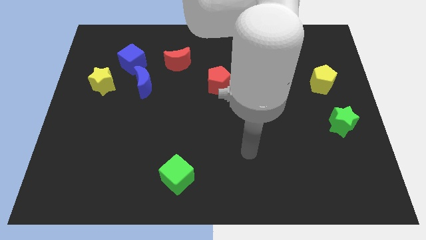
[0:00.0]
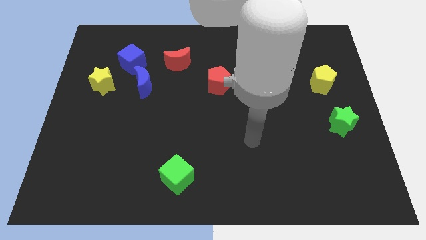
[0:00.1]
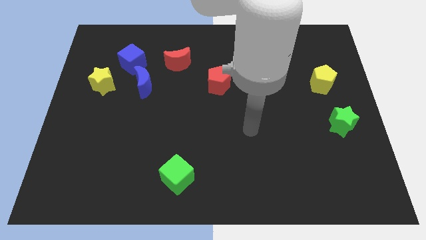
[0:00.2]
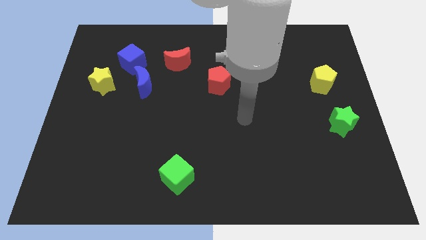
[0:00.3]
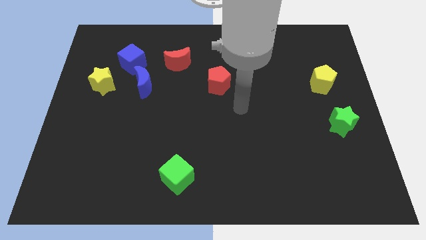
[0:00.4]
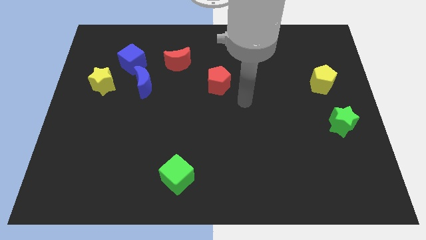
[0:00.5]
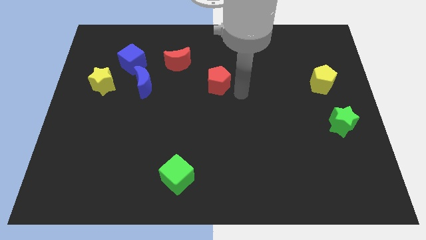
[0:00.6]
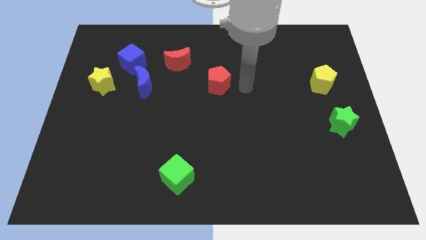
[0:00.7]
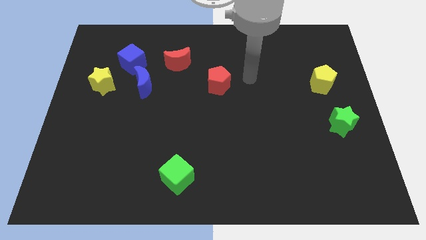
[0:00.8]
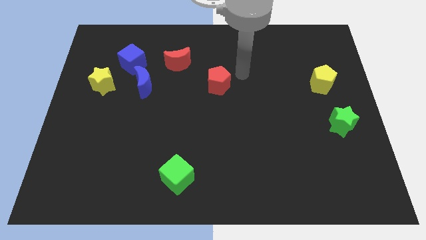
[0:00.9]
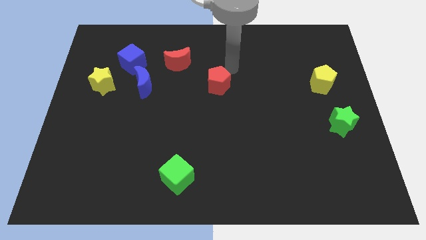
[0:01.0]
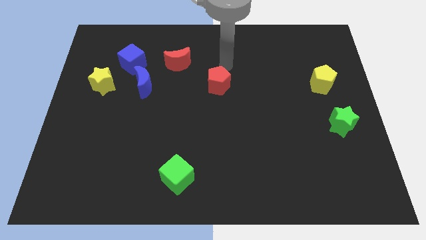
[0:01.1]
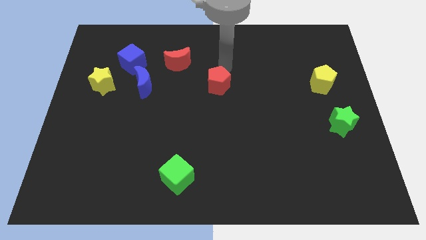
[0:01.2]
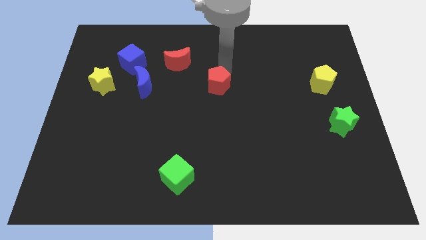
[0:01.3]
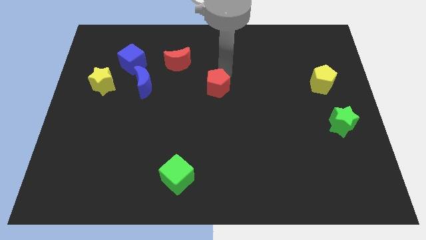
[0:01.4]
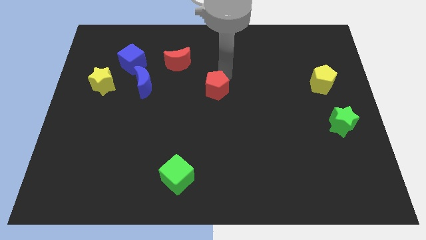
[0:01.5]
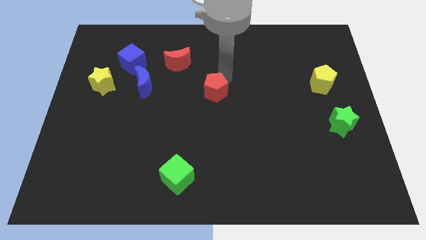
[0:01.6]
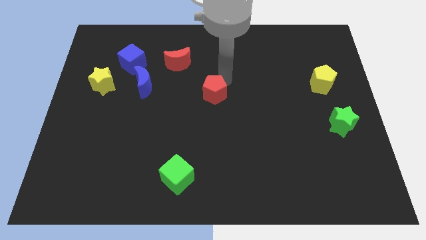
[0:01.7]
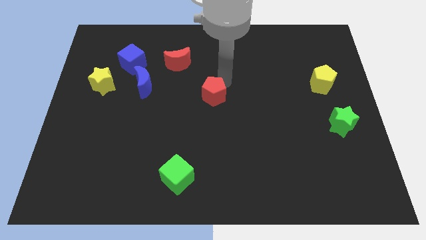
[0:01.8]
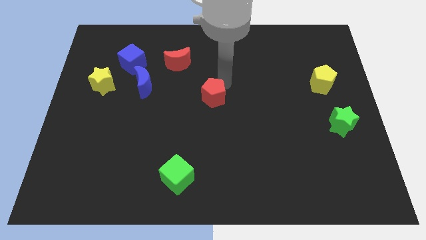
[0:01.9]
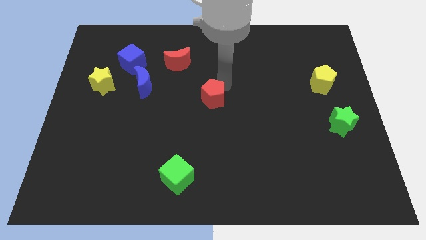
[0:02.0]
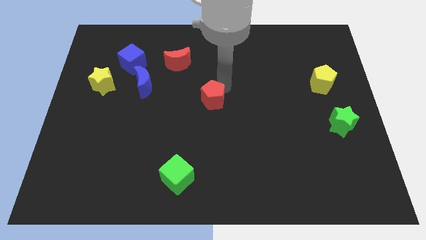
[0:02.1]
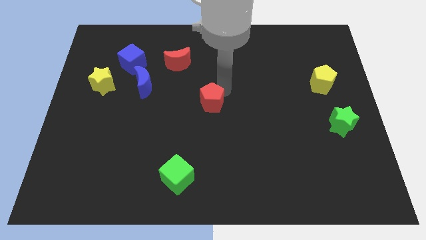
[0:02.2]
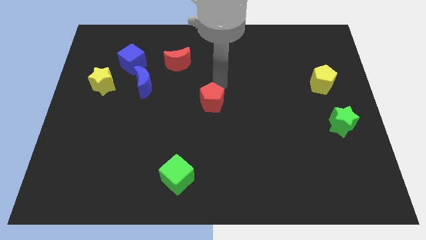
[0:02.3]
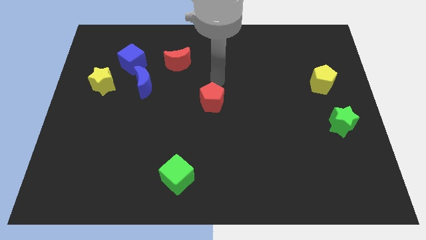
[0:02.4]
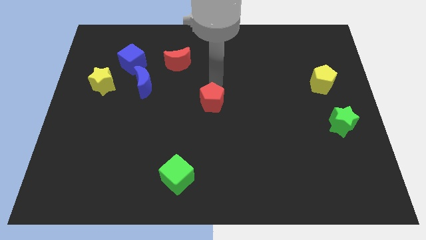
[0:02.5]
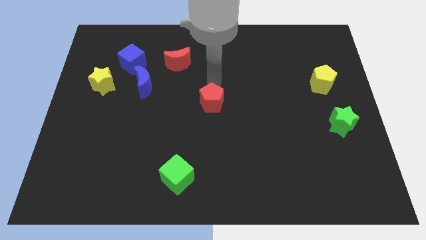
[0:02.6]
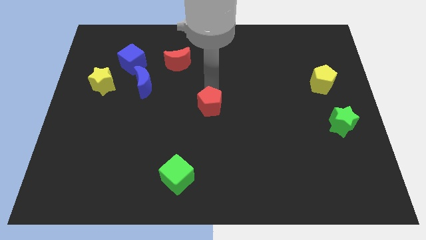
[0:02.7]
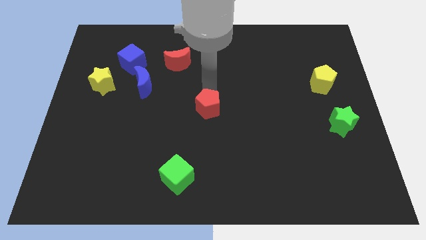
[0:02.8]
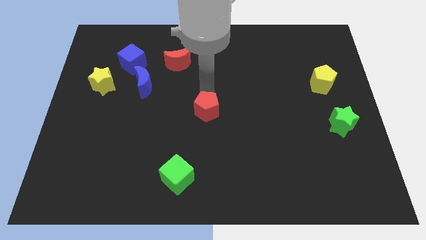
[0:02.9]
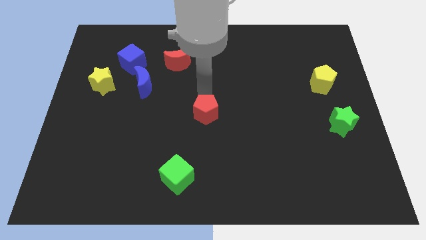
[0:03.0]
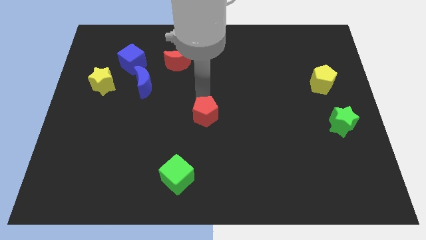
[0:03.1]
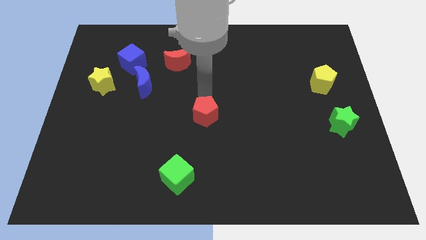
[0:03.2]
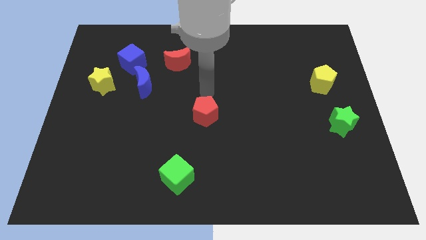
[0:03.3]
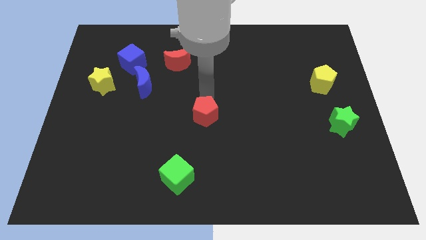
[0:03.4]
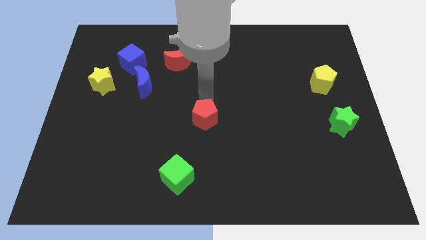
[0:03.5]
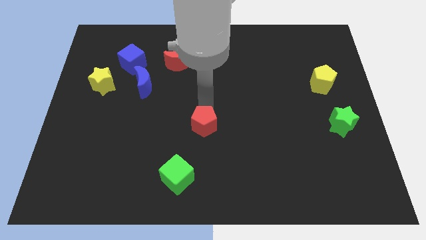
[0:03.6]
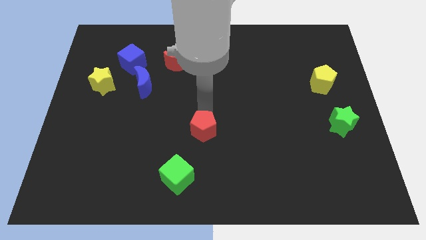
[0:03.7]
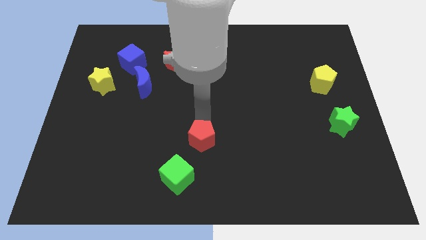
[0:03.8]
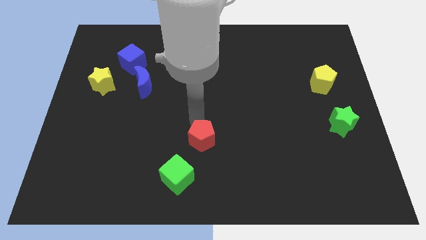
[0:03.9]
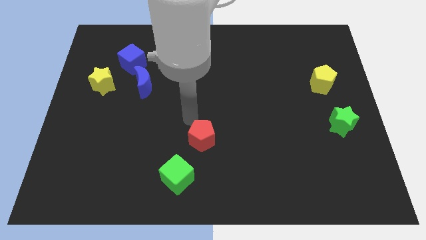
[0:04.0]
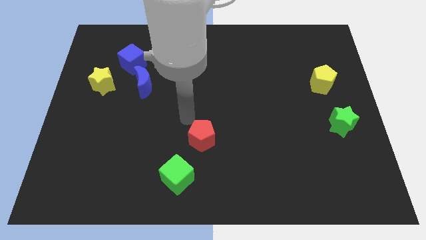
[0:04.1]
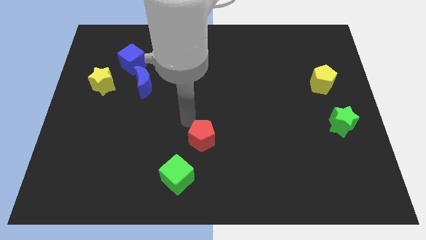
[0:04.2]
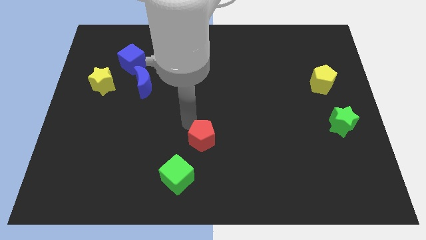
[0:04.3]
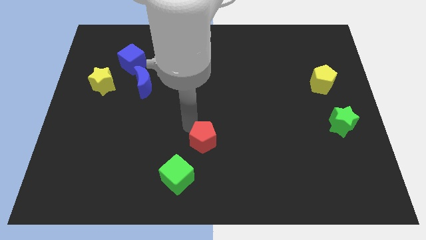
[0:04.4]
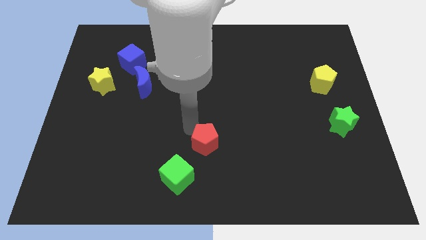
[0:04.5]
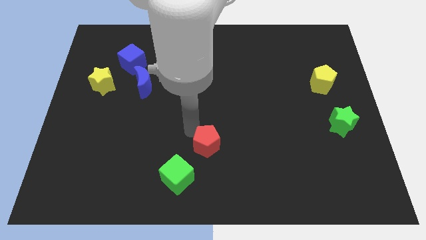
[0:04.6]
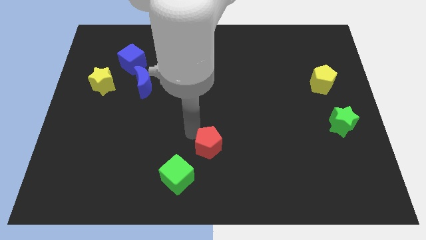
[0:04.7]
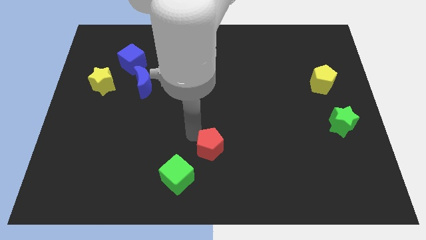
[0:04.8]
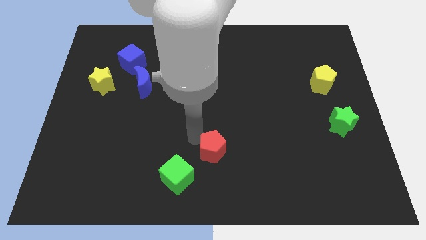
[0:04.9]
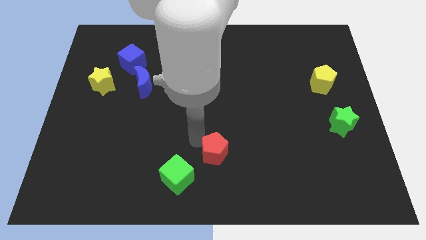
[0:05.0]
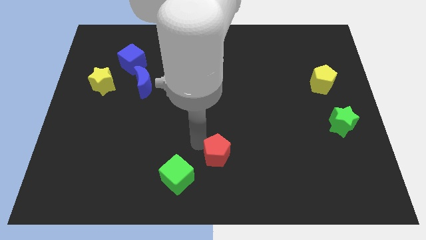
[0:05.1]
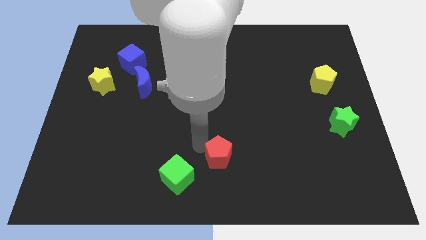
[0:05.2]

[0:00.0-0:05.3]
move the red pentagon to the right side of the green cube
